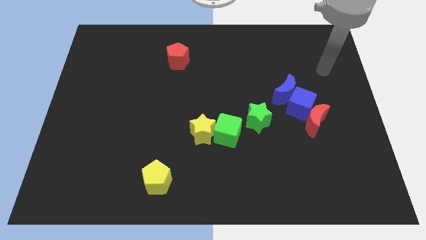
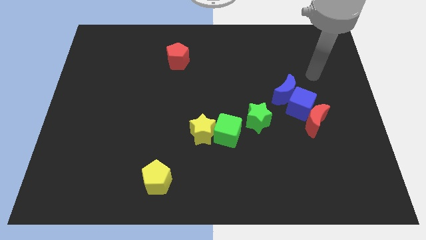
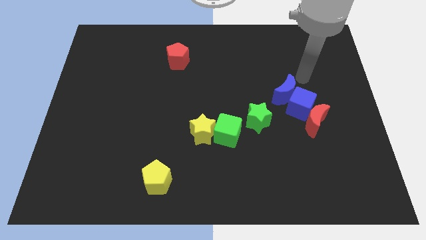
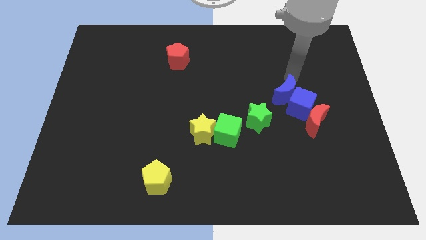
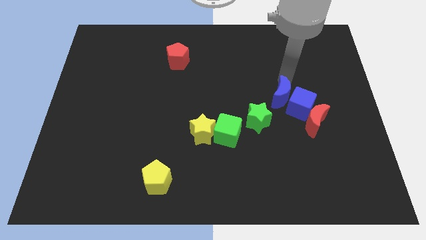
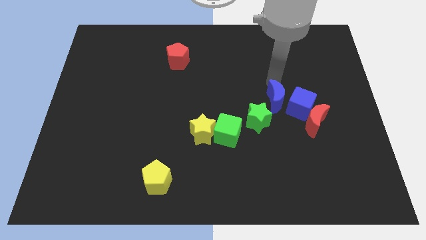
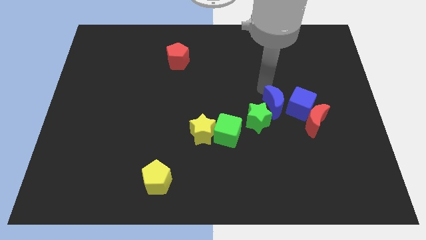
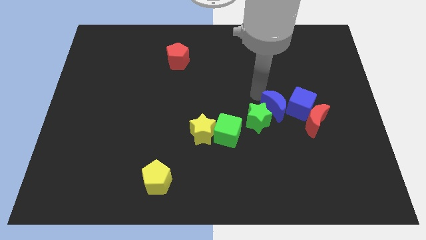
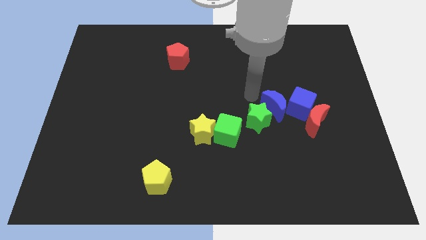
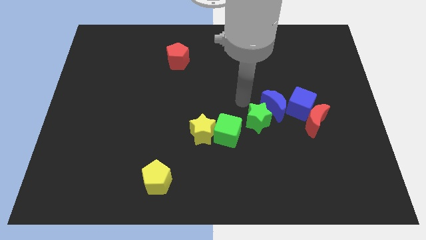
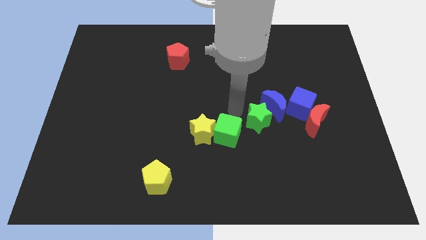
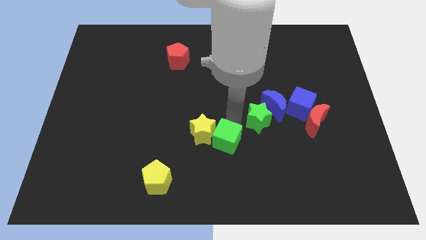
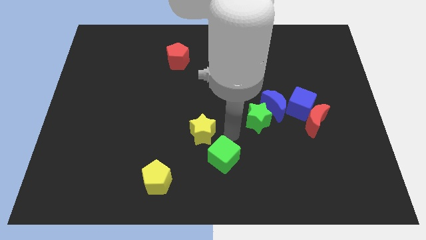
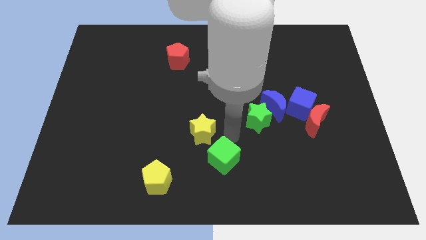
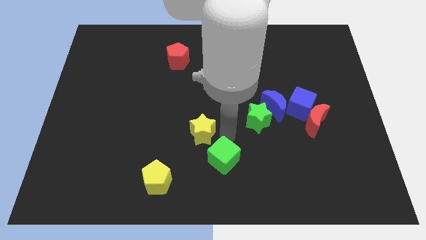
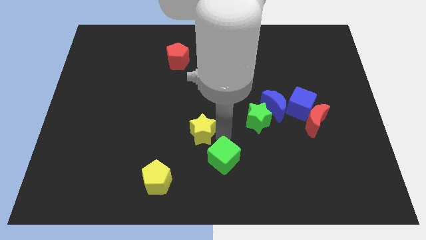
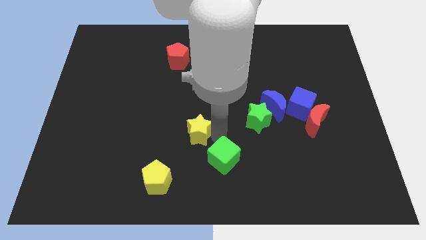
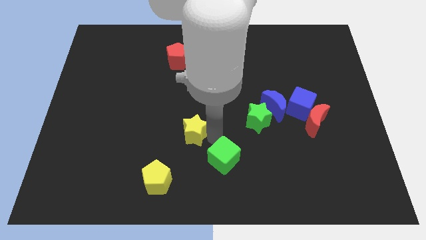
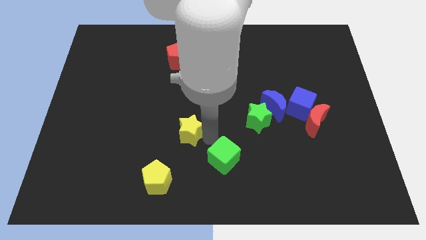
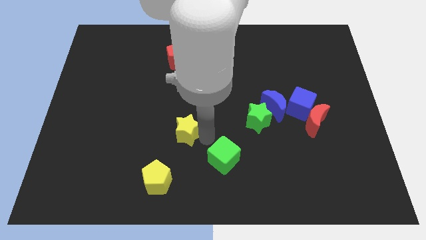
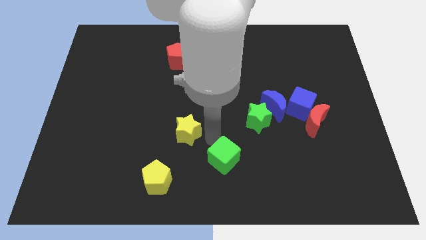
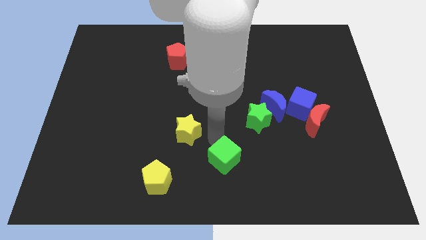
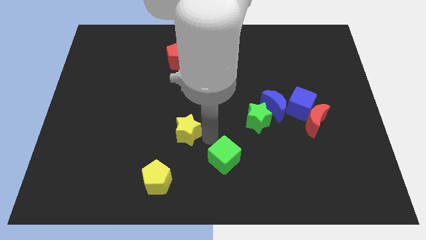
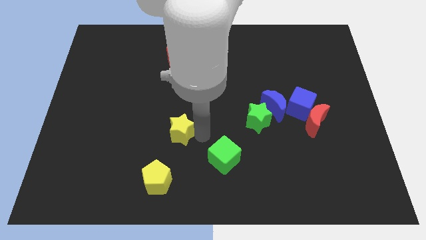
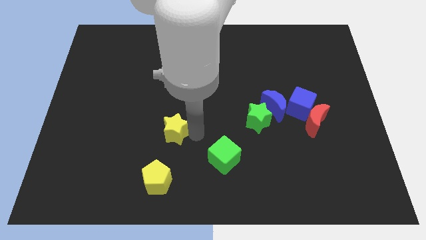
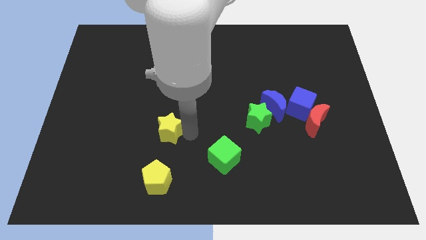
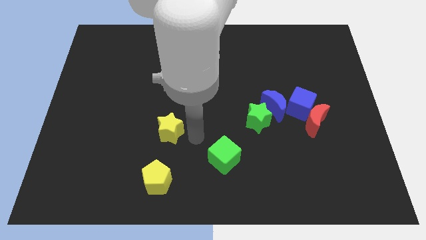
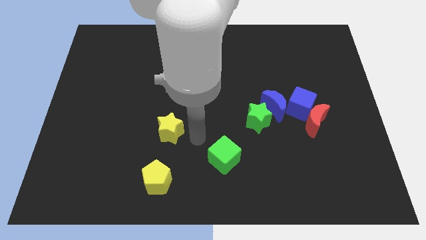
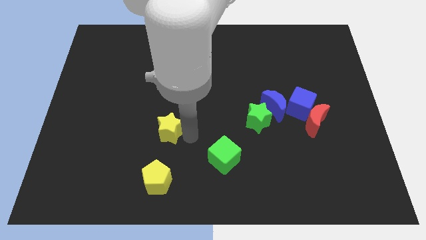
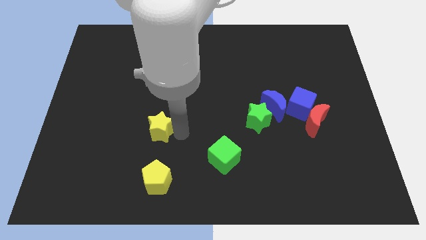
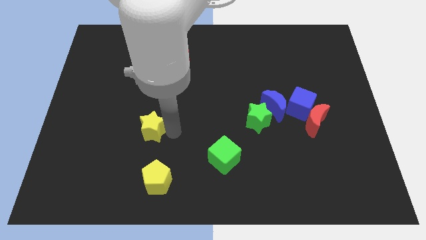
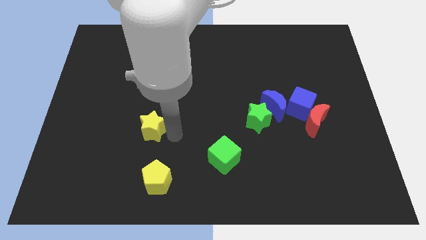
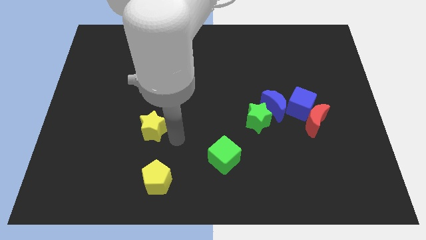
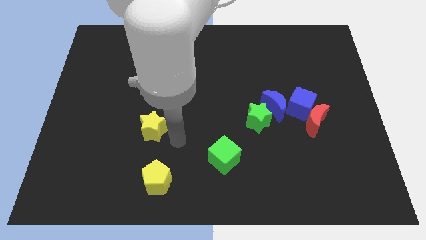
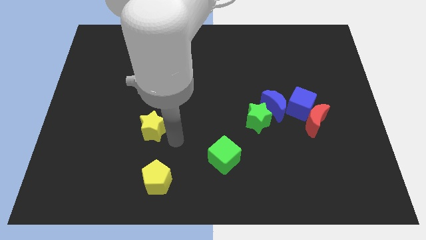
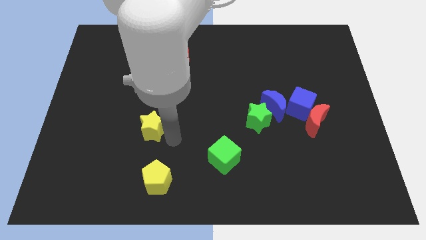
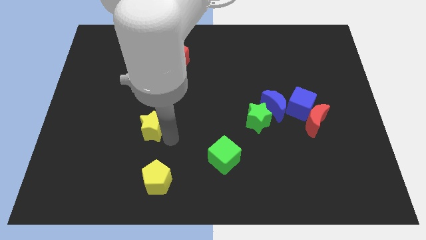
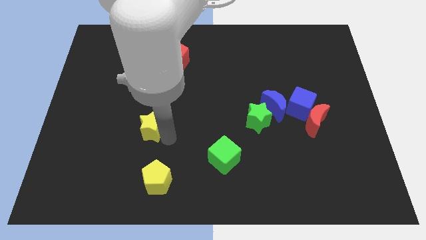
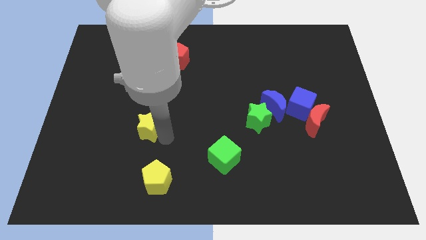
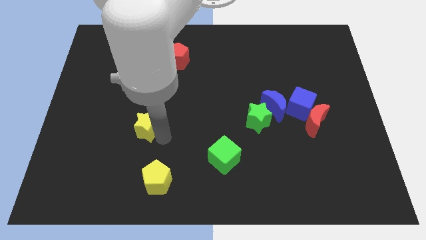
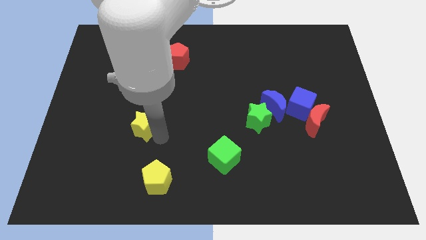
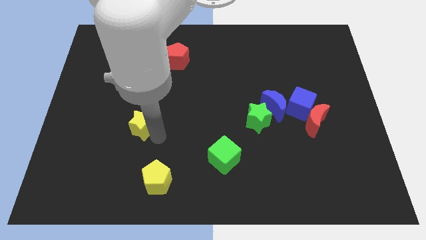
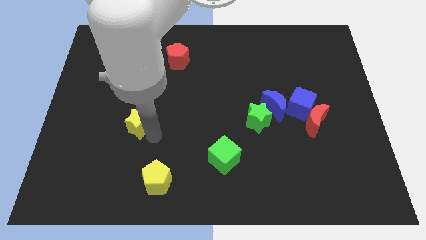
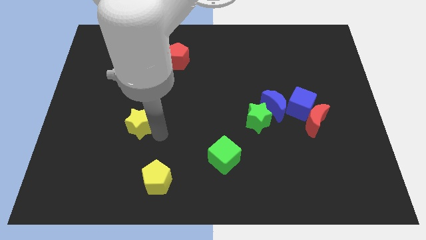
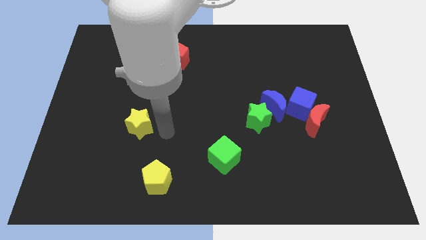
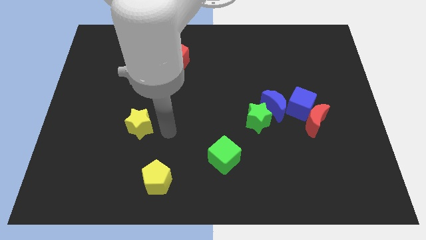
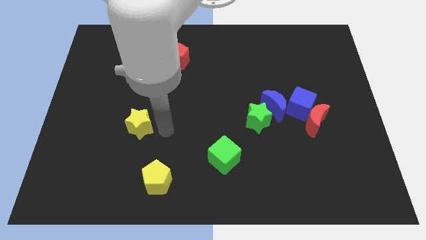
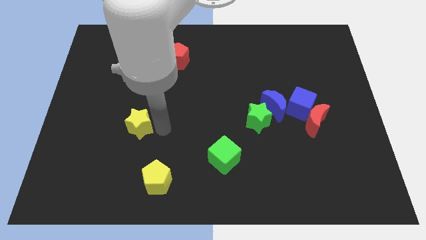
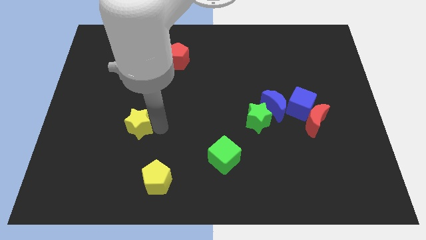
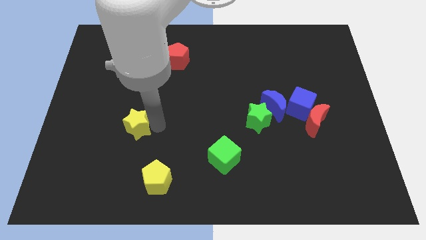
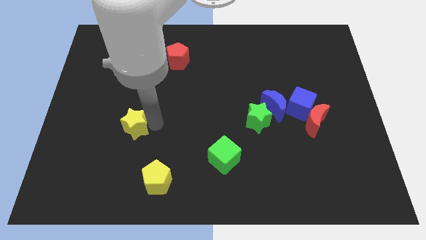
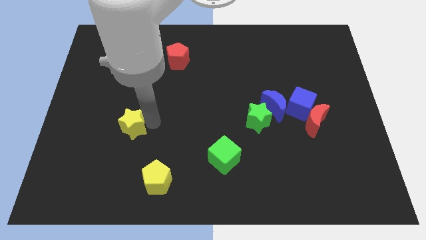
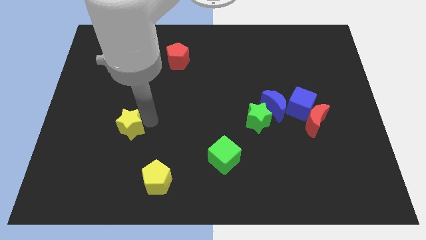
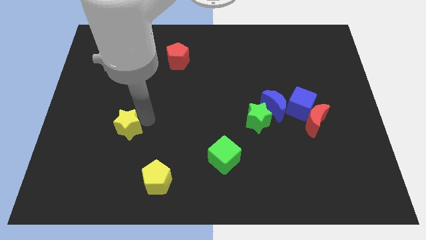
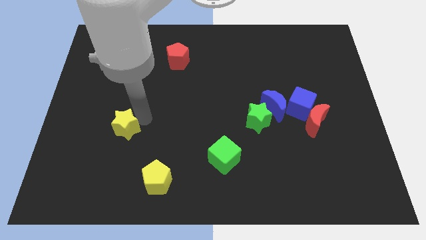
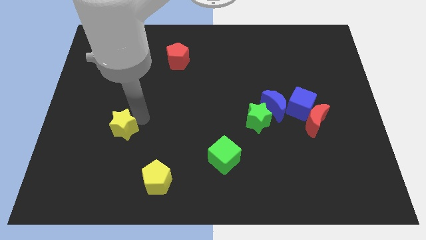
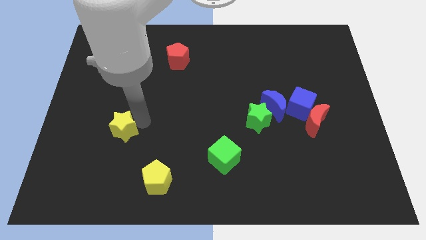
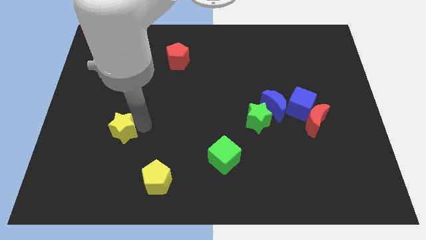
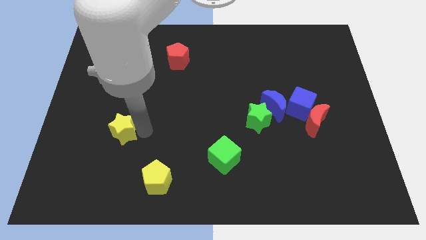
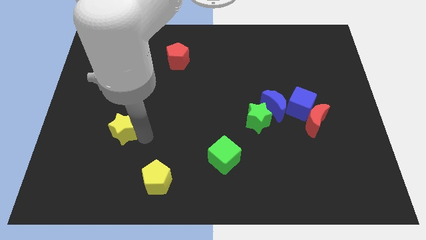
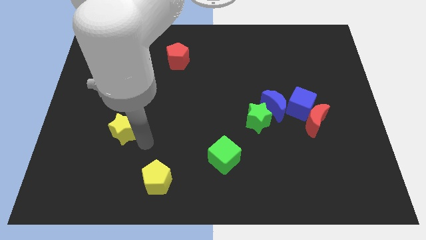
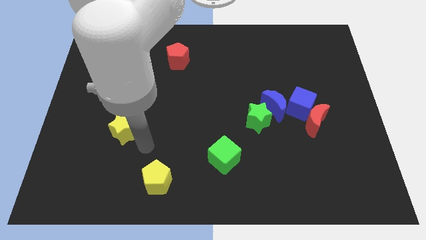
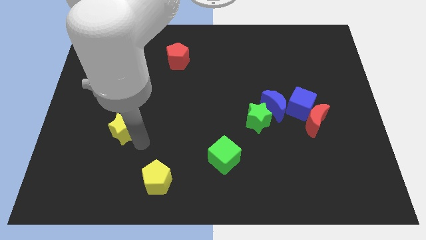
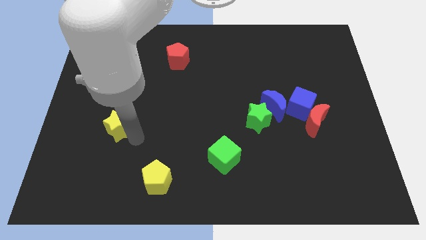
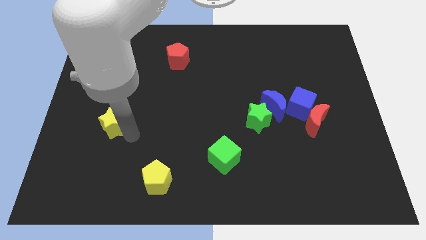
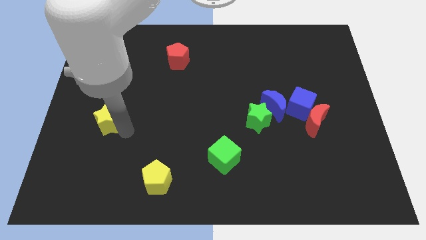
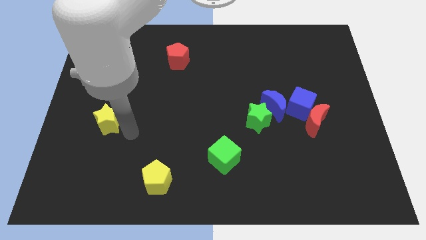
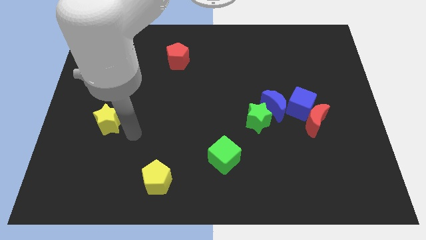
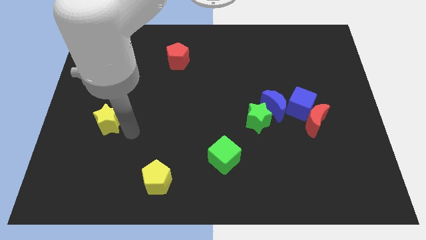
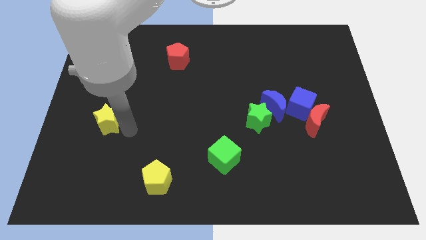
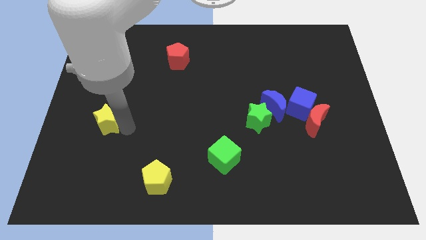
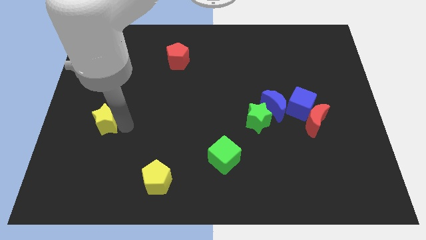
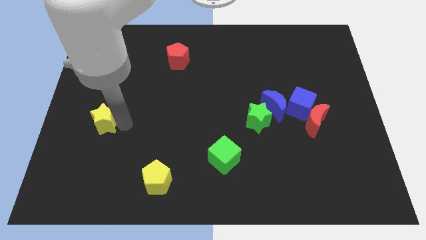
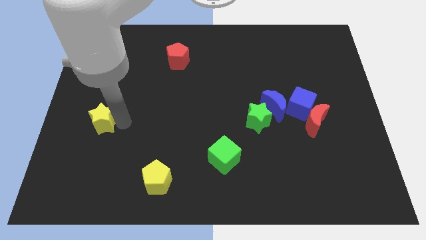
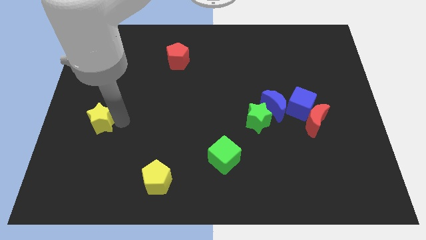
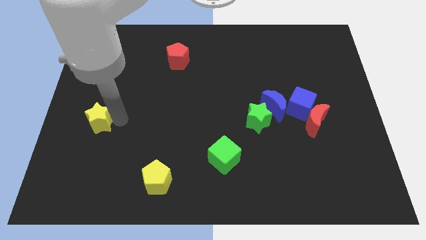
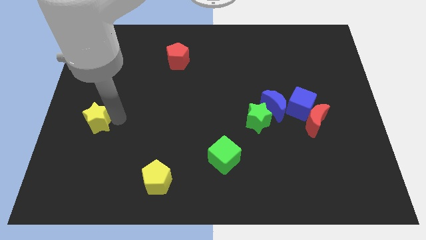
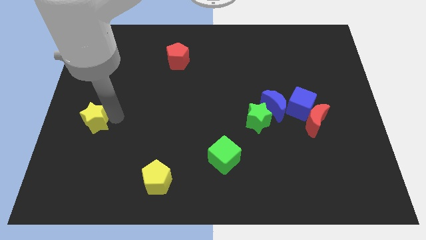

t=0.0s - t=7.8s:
slide the yellow star to the left side of the board
